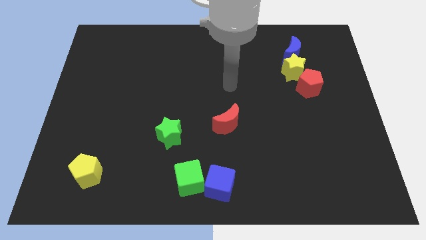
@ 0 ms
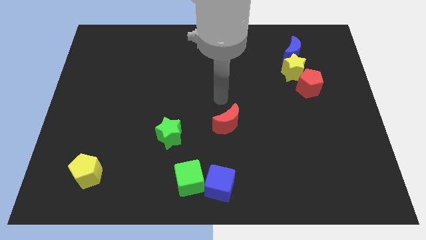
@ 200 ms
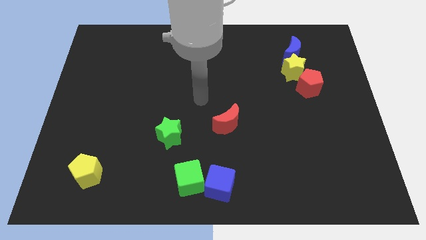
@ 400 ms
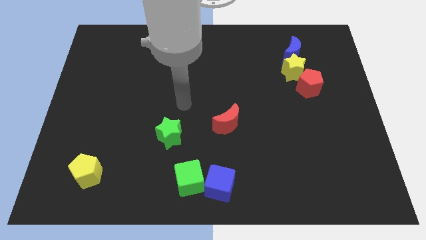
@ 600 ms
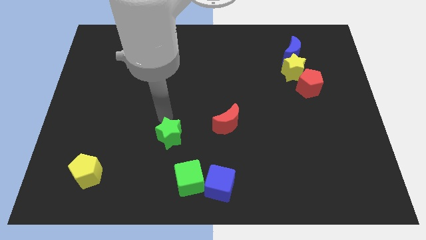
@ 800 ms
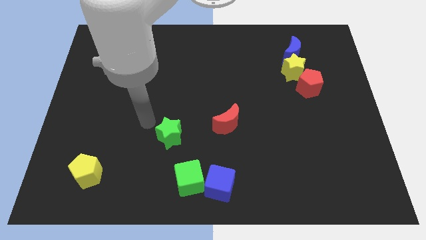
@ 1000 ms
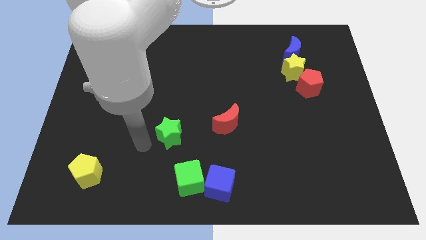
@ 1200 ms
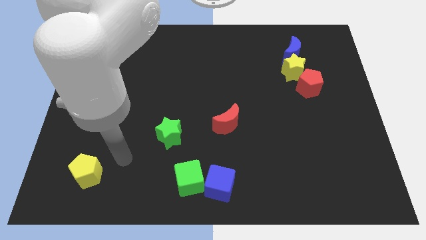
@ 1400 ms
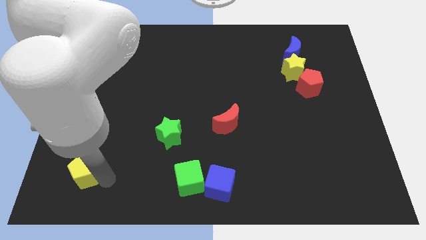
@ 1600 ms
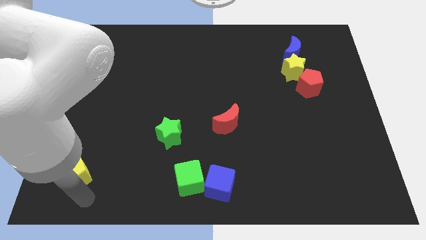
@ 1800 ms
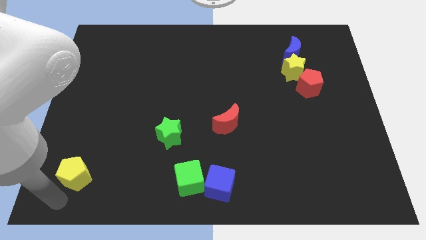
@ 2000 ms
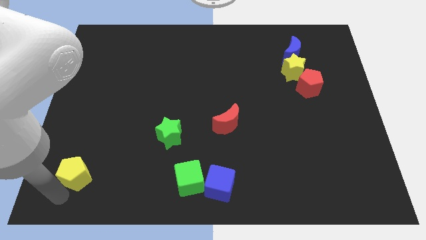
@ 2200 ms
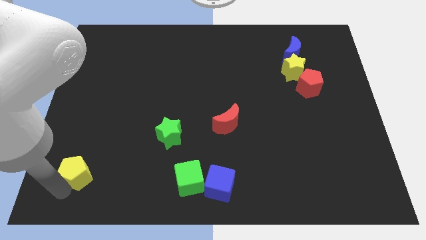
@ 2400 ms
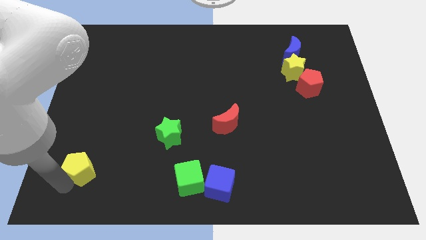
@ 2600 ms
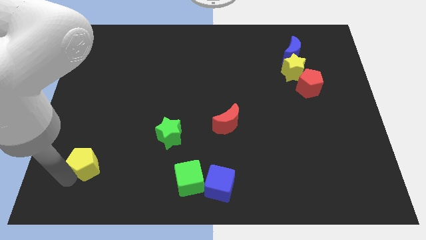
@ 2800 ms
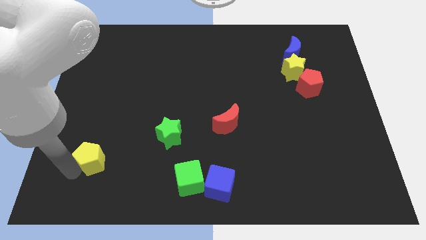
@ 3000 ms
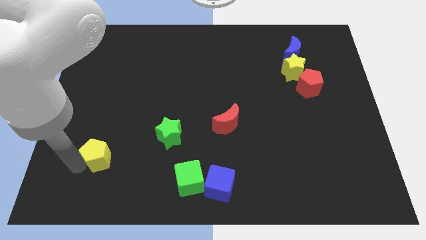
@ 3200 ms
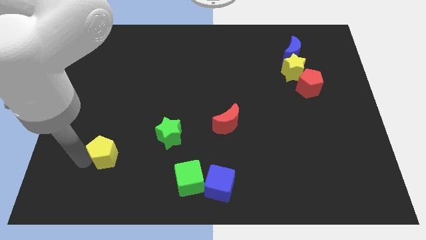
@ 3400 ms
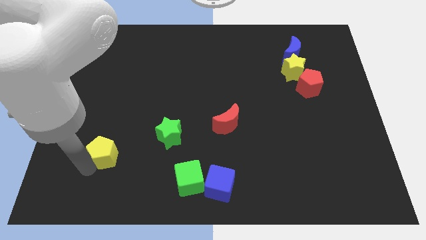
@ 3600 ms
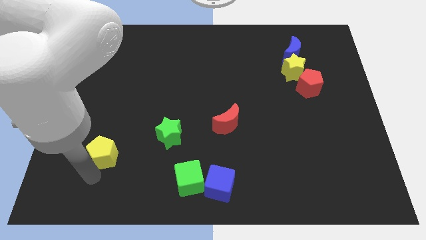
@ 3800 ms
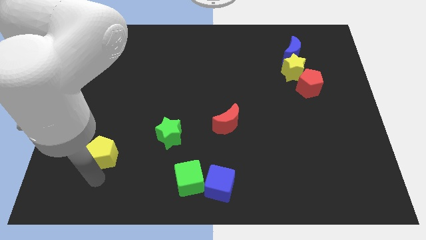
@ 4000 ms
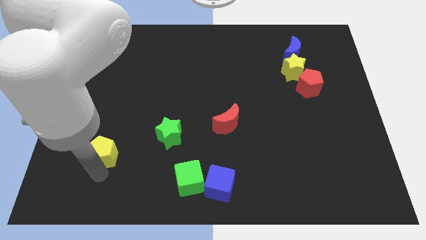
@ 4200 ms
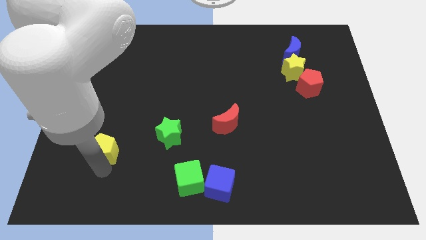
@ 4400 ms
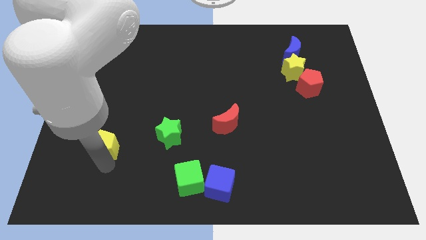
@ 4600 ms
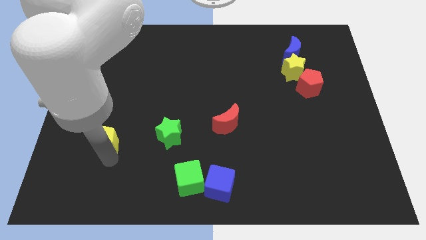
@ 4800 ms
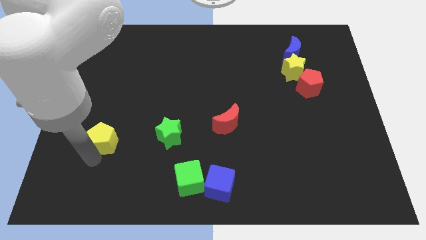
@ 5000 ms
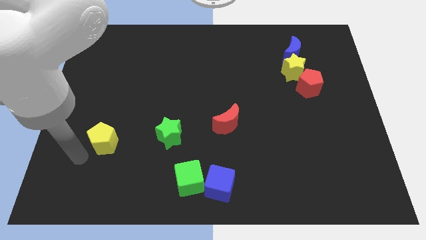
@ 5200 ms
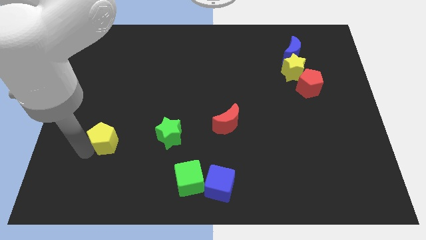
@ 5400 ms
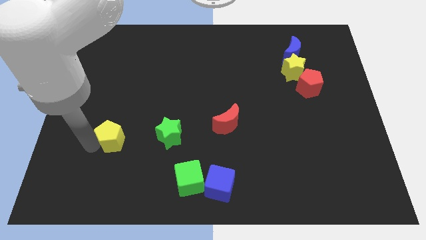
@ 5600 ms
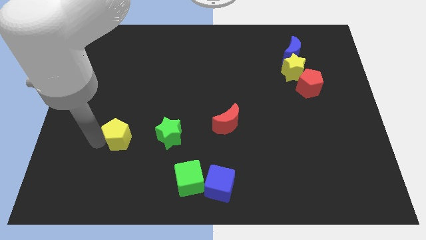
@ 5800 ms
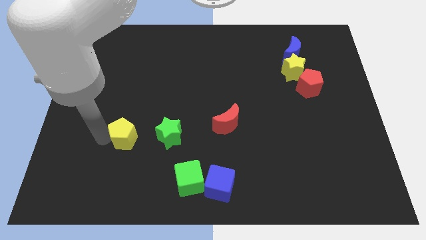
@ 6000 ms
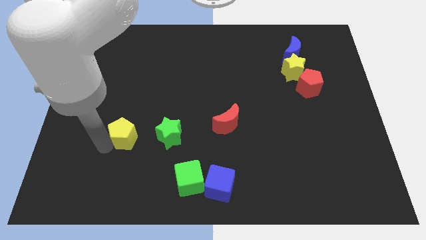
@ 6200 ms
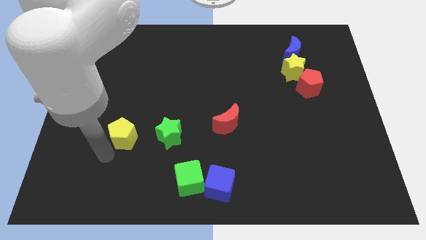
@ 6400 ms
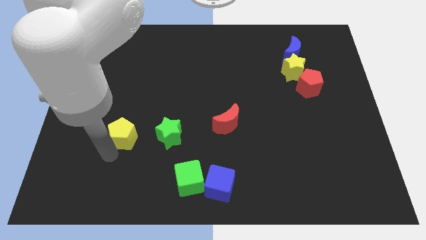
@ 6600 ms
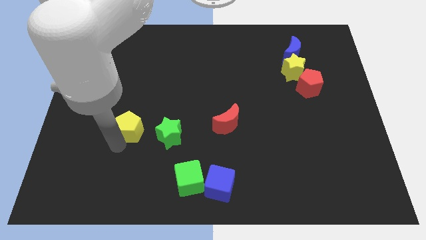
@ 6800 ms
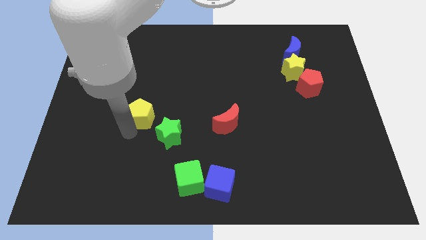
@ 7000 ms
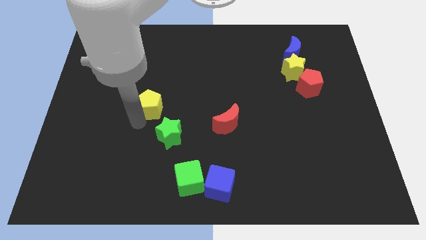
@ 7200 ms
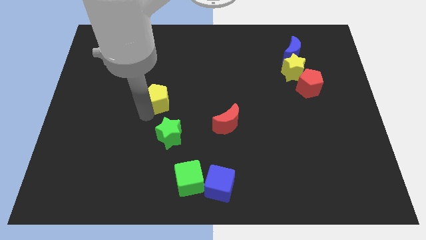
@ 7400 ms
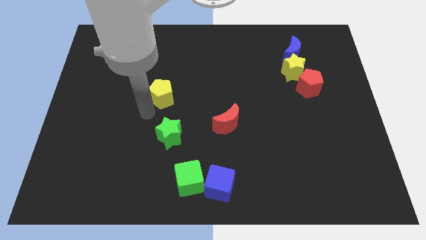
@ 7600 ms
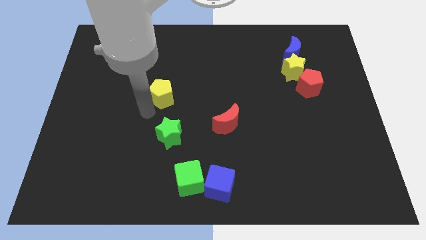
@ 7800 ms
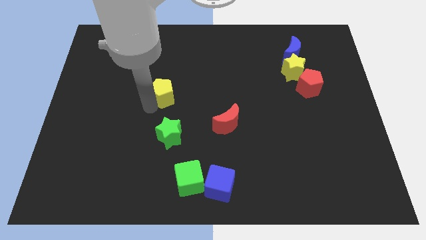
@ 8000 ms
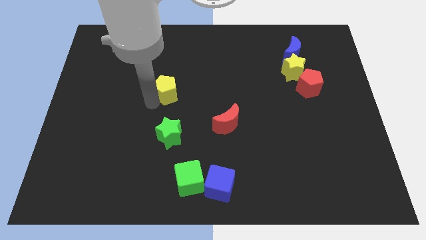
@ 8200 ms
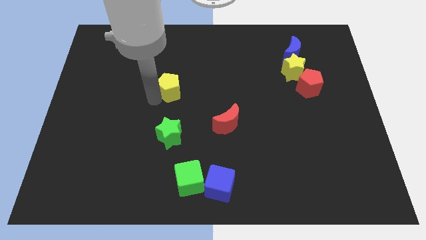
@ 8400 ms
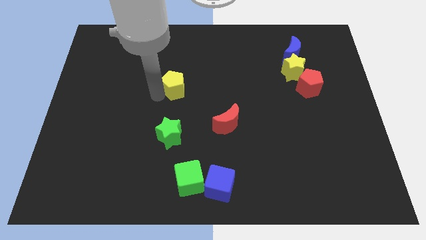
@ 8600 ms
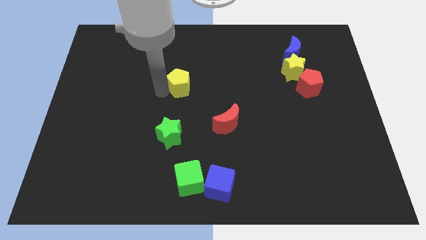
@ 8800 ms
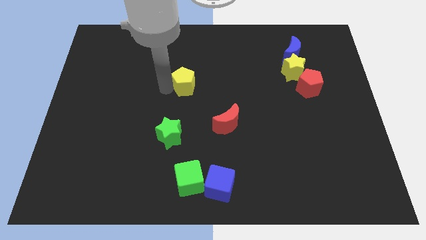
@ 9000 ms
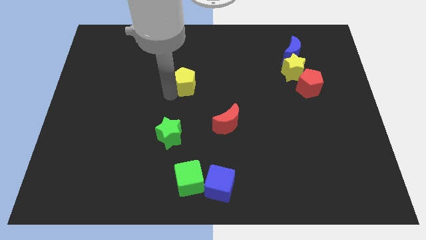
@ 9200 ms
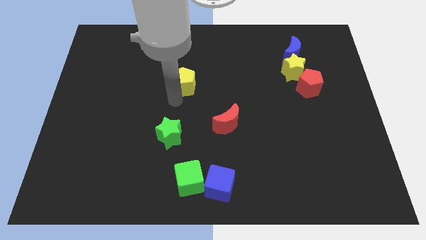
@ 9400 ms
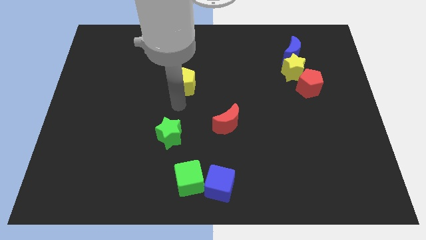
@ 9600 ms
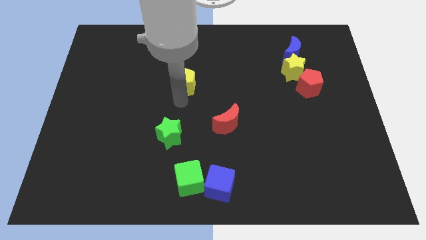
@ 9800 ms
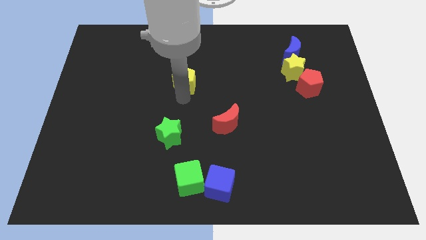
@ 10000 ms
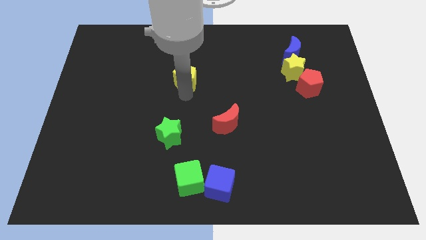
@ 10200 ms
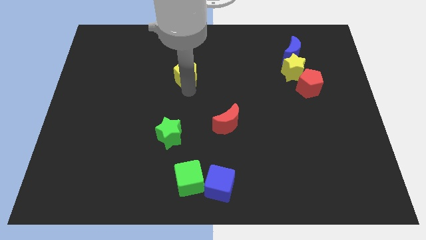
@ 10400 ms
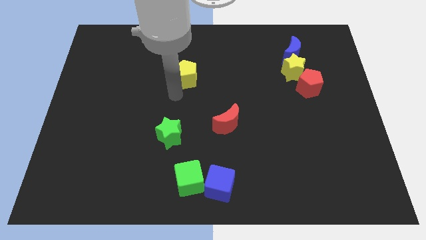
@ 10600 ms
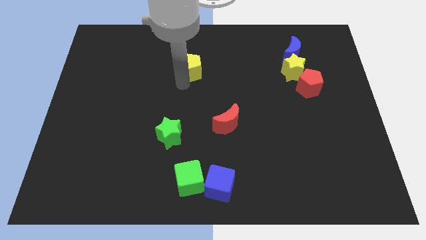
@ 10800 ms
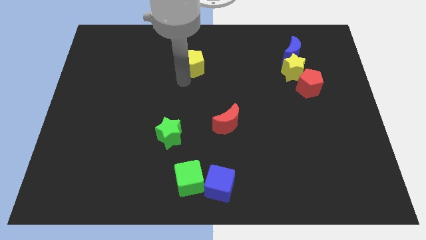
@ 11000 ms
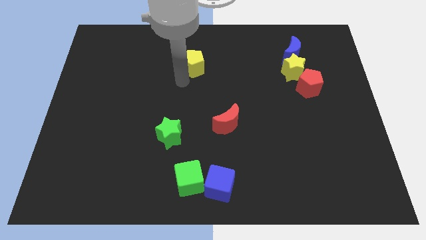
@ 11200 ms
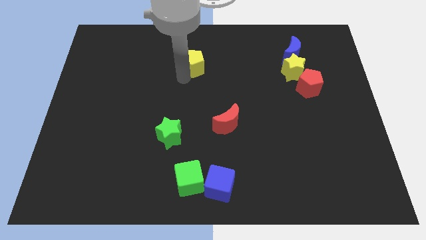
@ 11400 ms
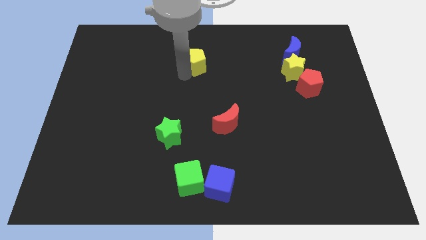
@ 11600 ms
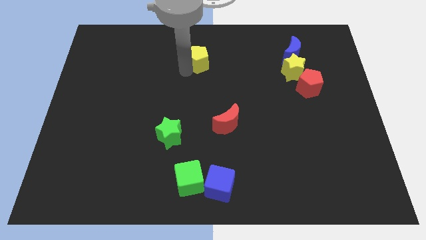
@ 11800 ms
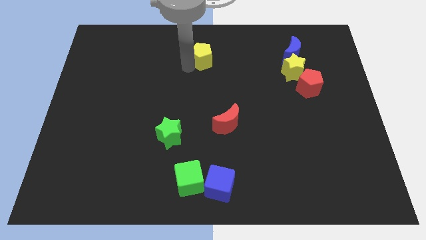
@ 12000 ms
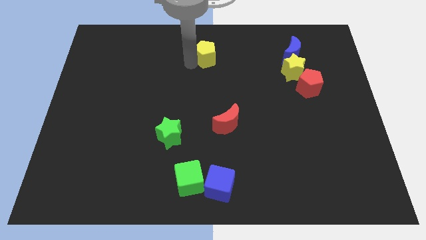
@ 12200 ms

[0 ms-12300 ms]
push the yellow pentagon to the top
